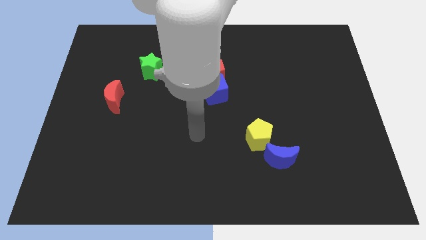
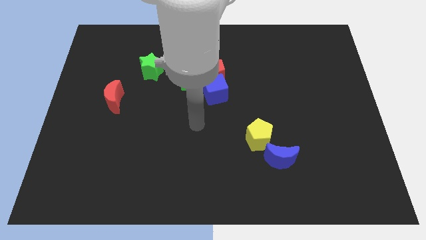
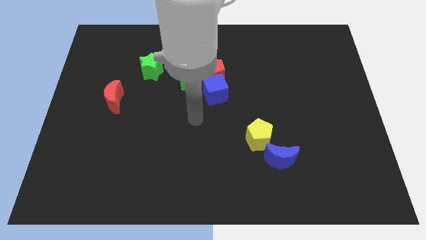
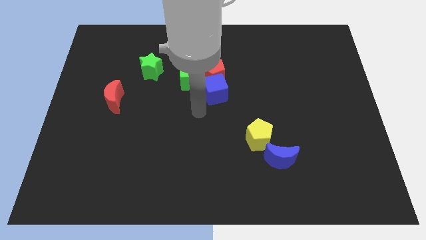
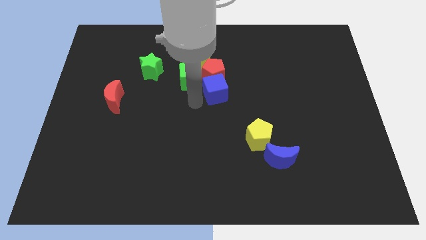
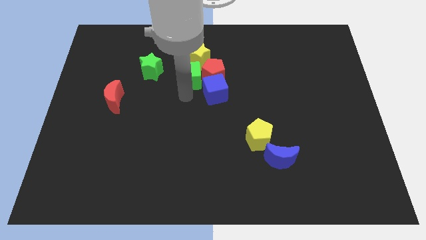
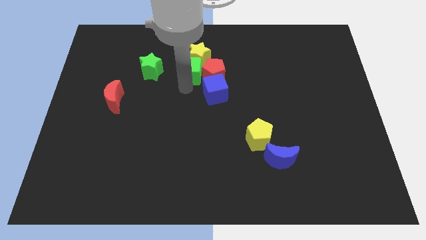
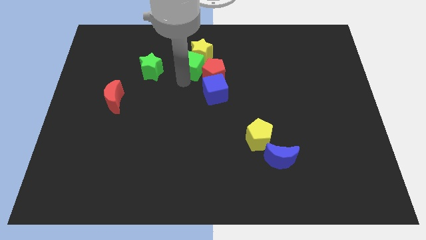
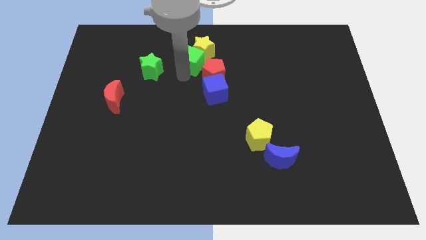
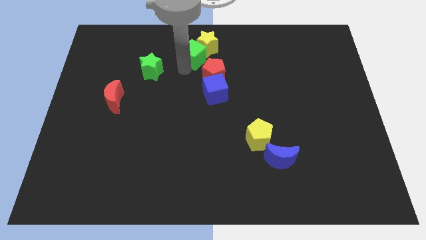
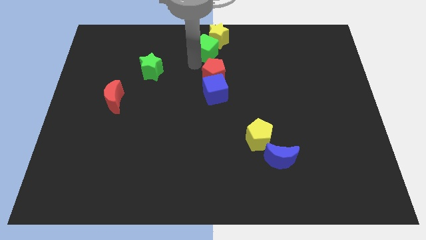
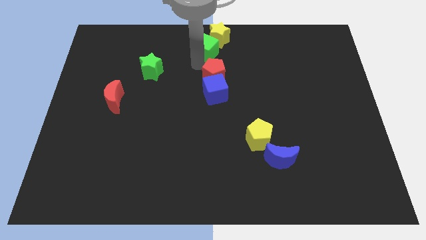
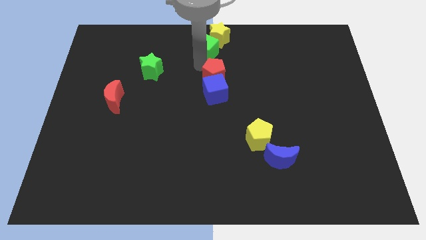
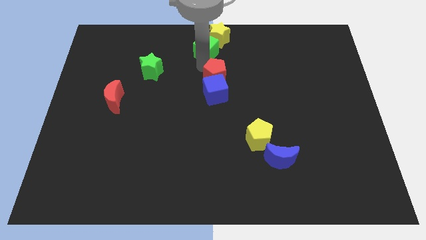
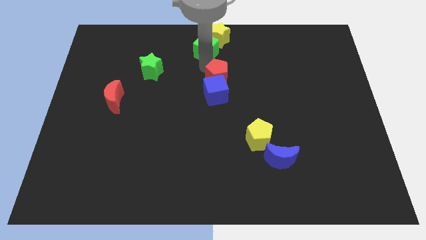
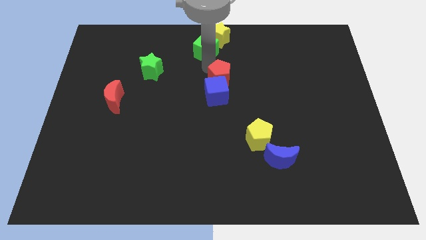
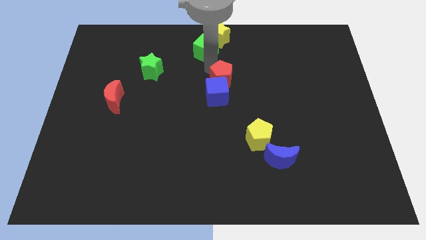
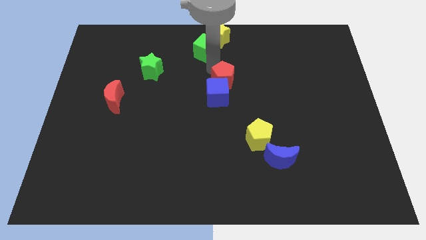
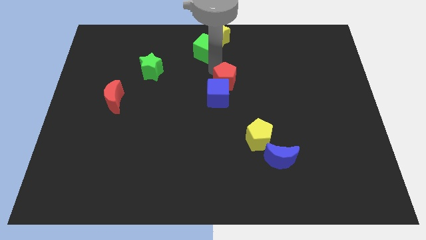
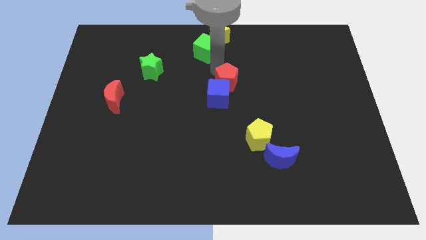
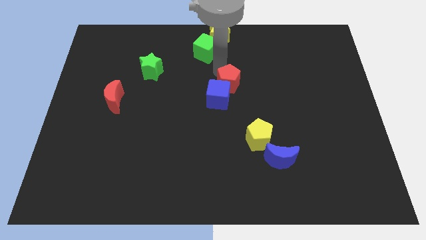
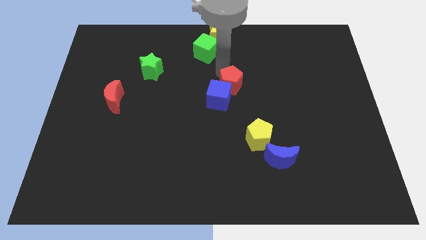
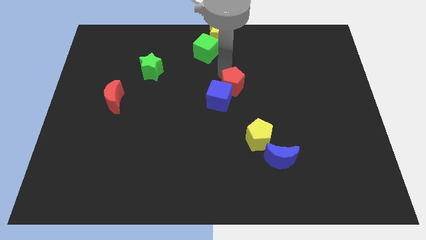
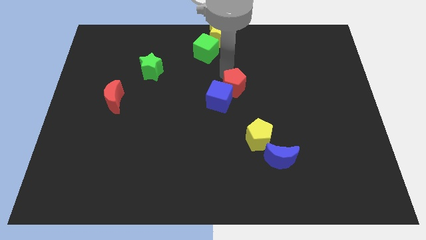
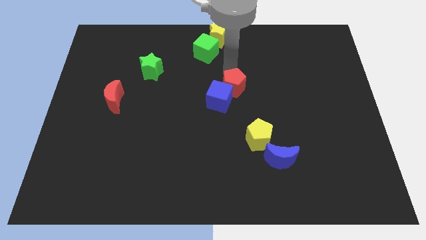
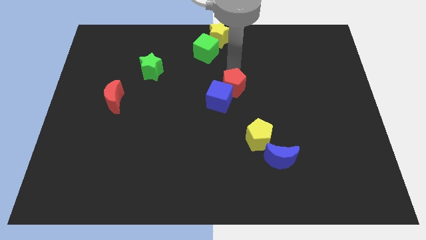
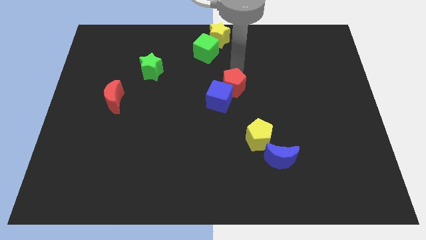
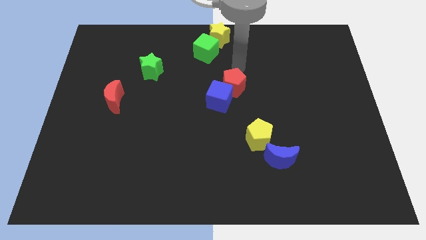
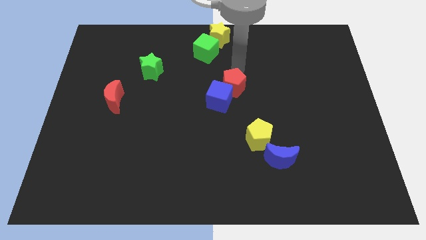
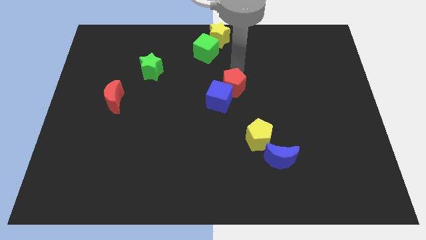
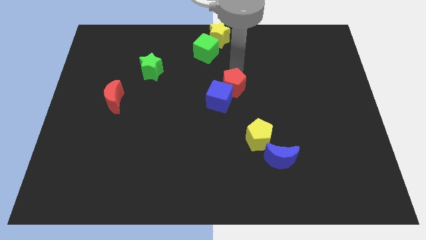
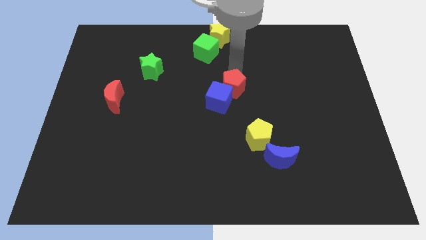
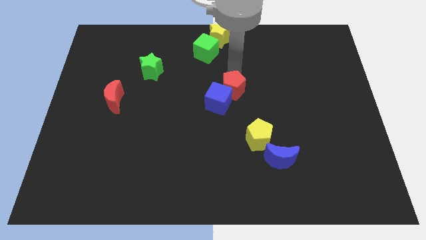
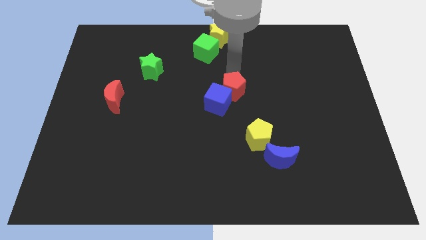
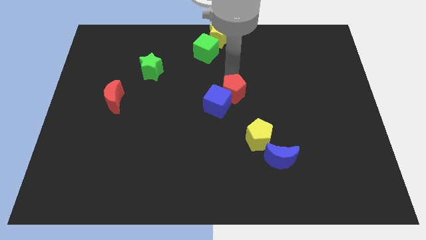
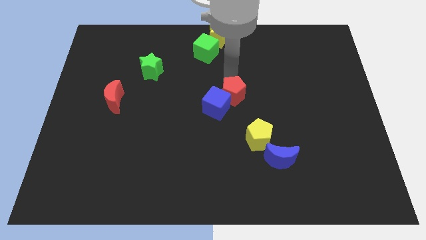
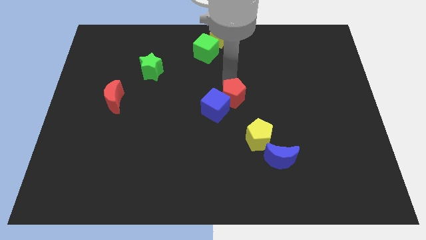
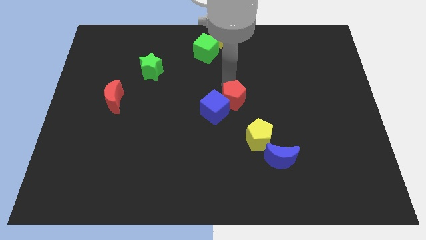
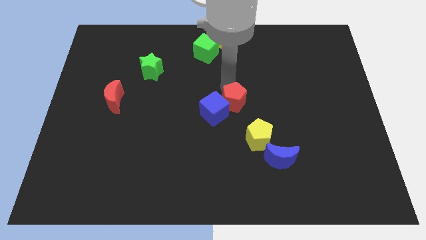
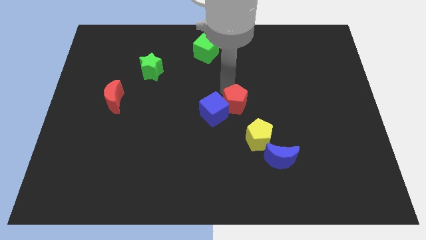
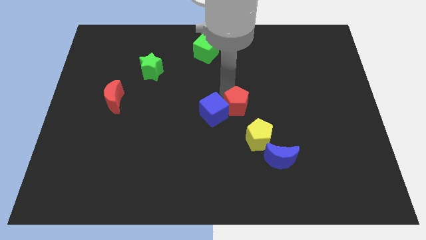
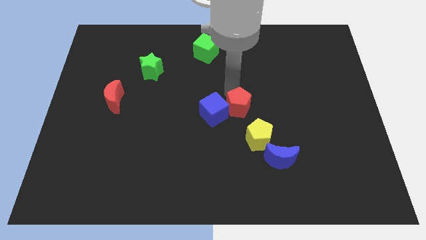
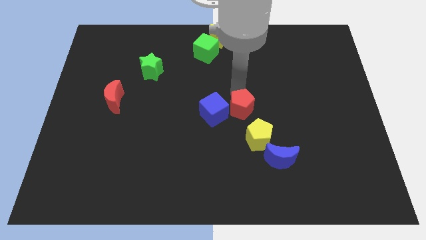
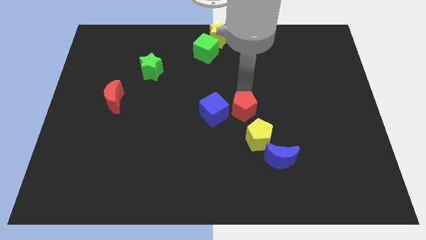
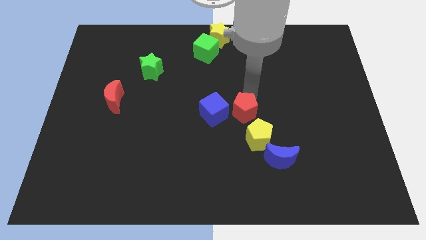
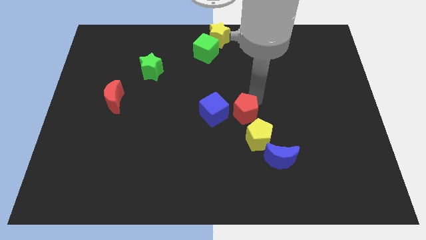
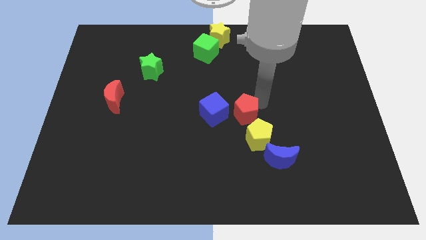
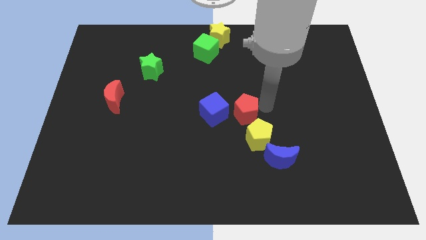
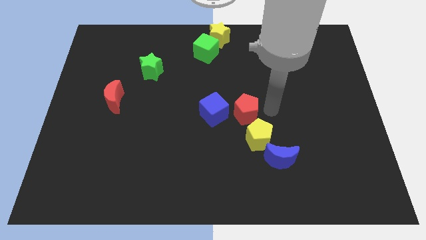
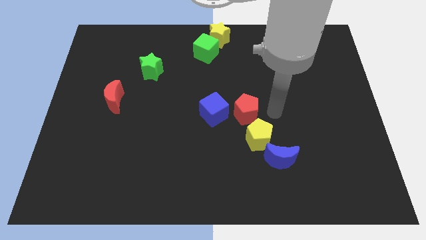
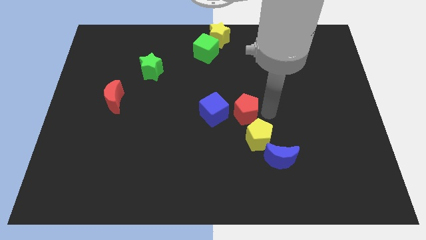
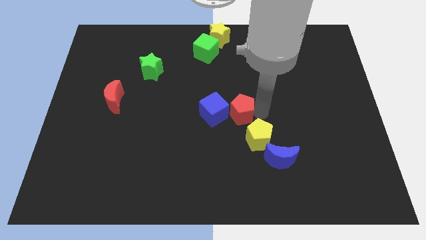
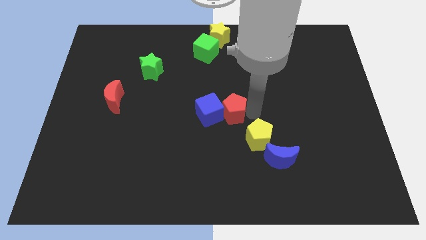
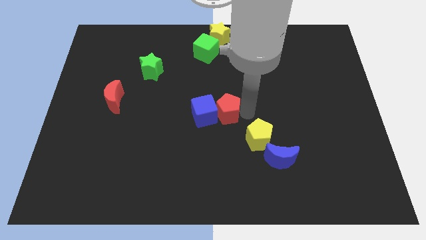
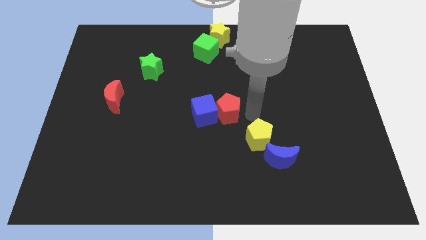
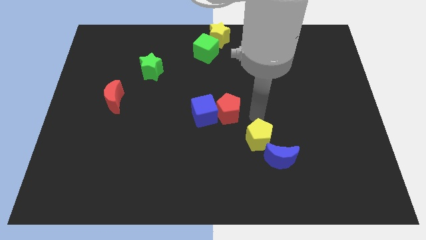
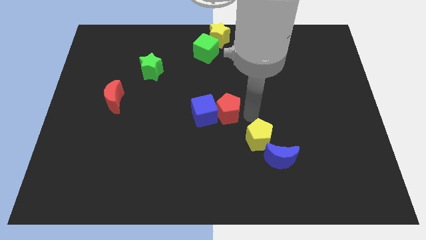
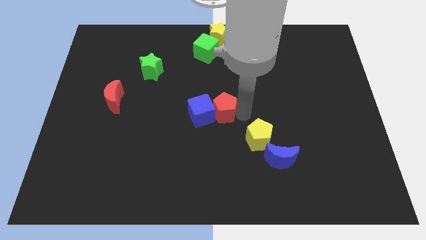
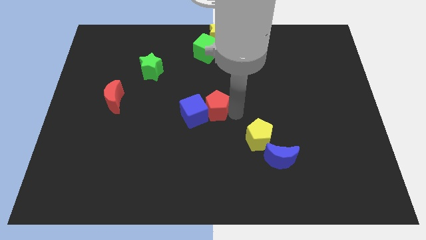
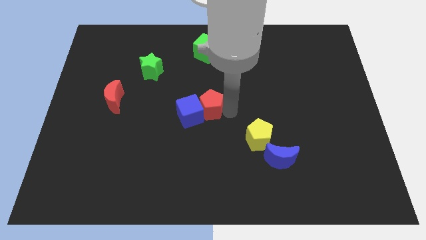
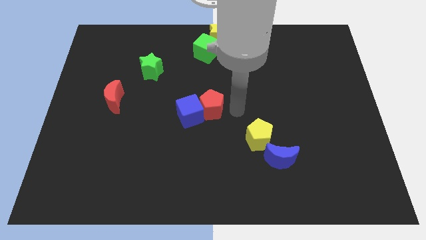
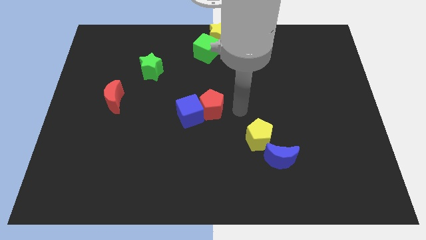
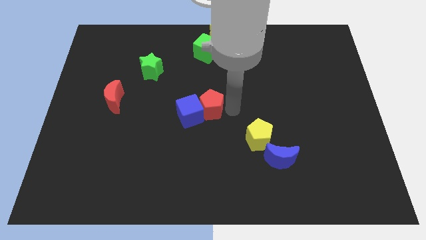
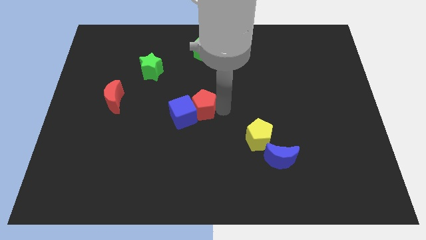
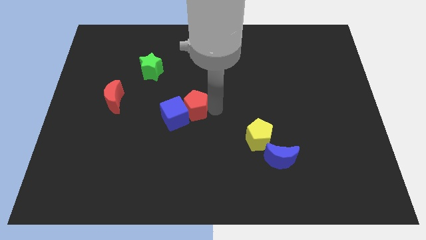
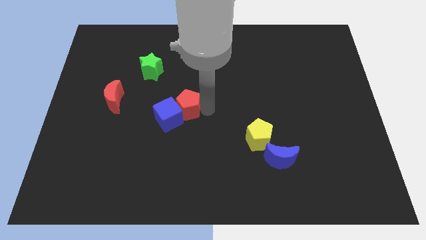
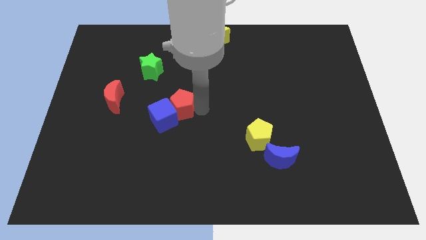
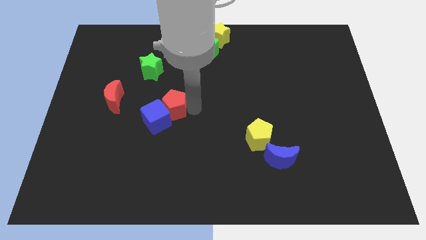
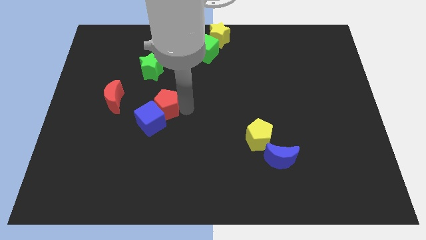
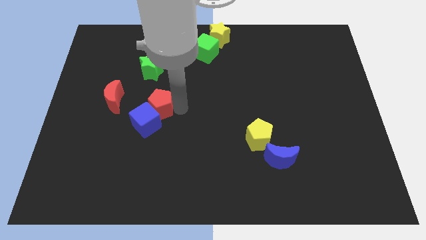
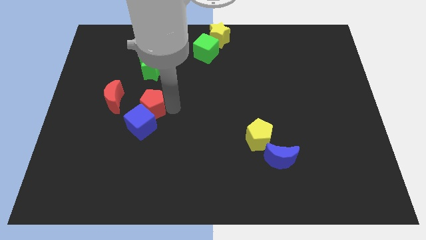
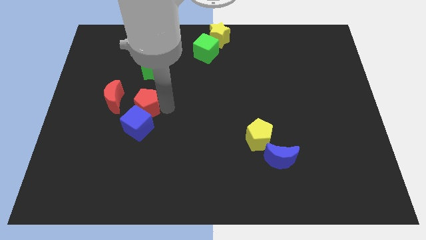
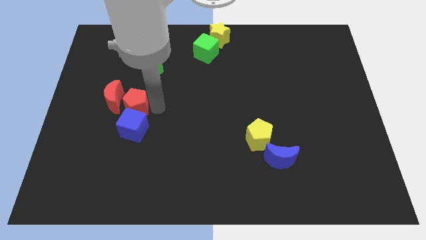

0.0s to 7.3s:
slide the red pentagon next to the red moon
